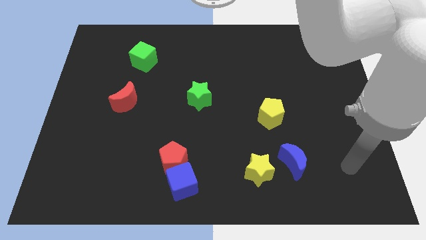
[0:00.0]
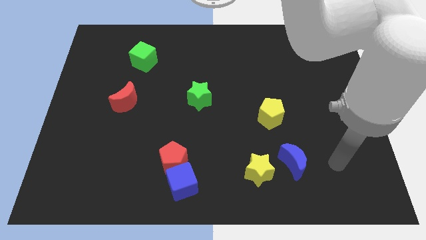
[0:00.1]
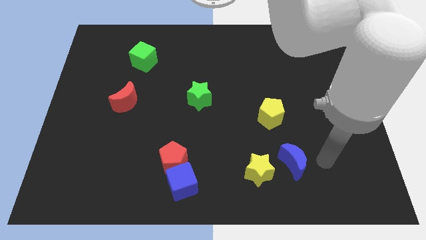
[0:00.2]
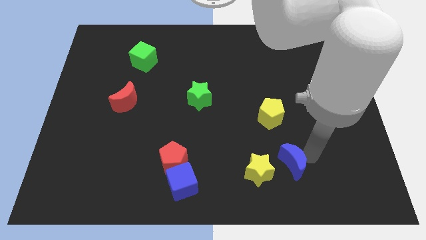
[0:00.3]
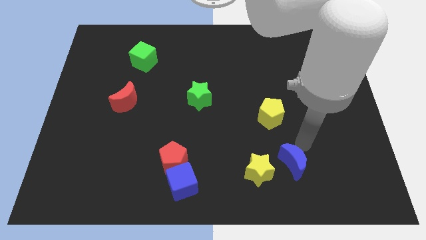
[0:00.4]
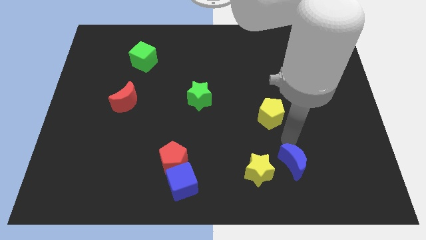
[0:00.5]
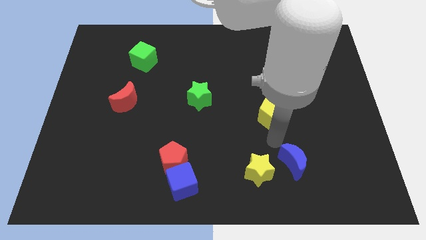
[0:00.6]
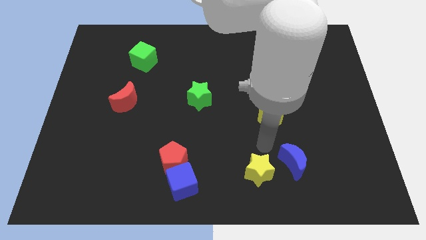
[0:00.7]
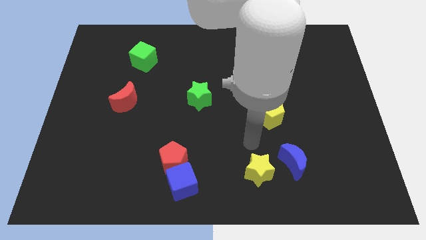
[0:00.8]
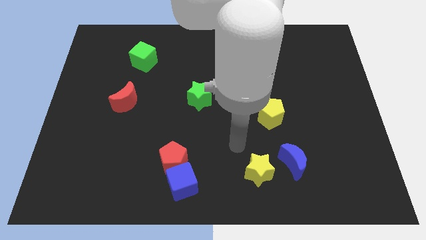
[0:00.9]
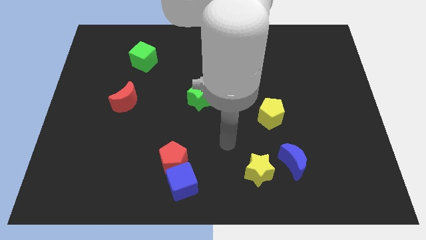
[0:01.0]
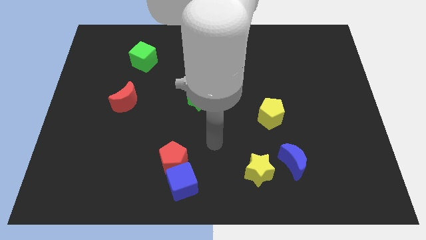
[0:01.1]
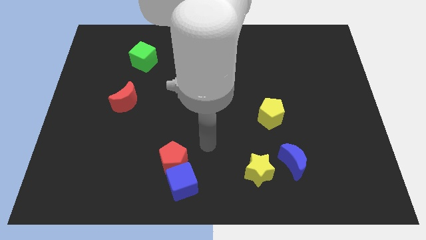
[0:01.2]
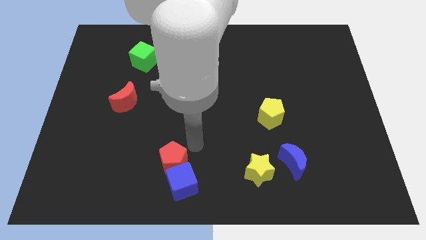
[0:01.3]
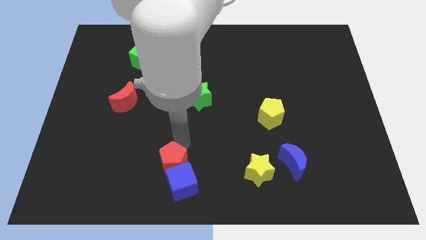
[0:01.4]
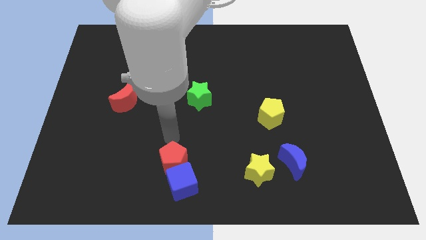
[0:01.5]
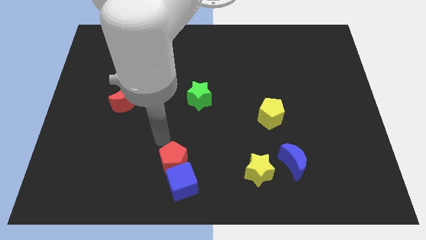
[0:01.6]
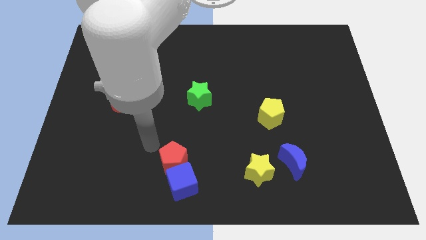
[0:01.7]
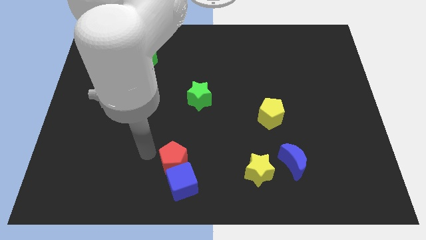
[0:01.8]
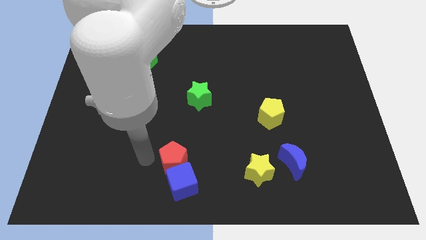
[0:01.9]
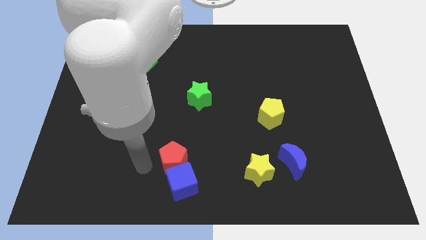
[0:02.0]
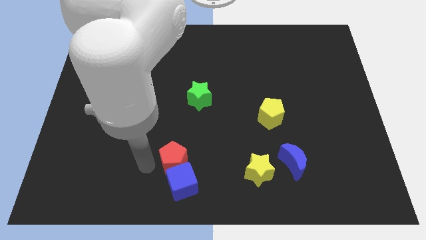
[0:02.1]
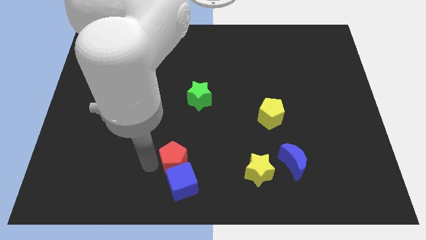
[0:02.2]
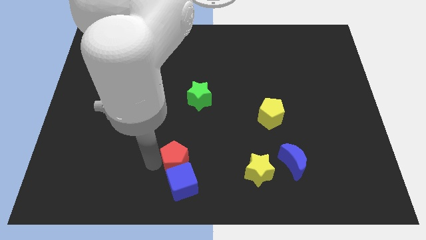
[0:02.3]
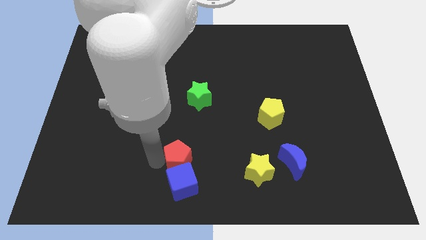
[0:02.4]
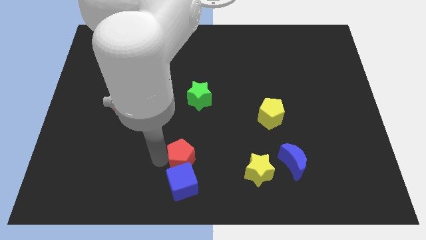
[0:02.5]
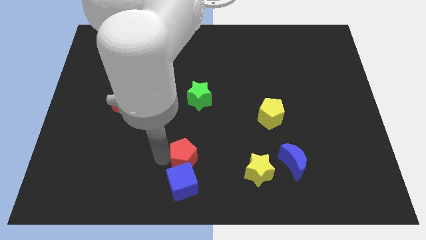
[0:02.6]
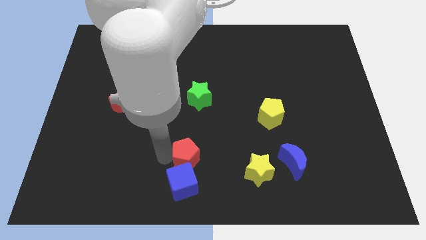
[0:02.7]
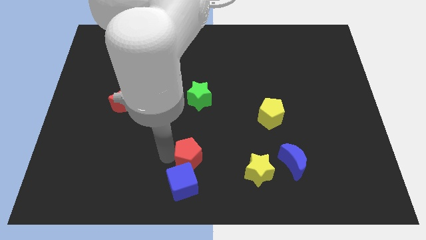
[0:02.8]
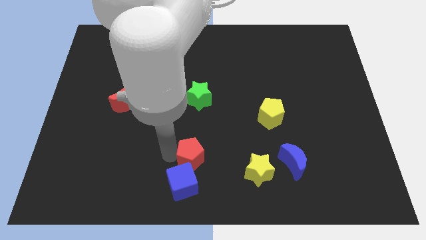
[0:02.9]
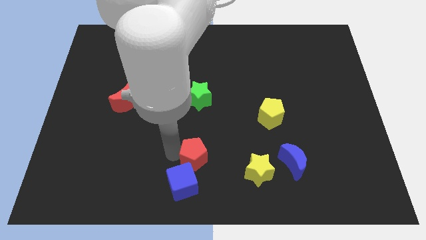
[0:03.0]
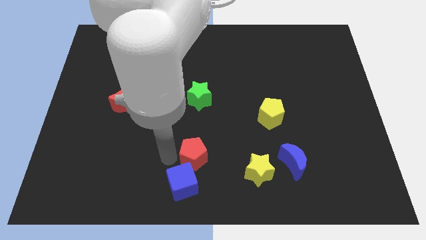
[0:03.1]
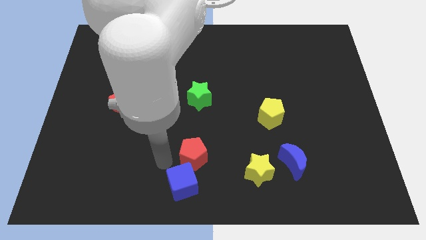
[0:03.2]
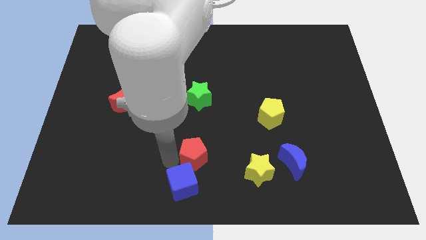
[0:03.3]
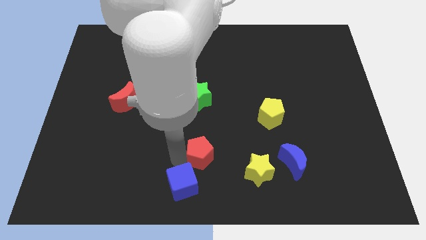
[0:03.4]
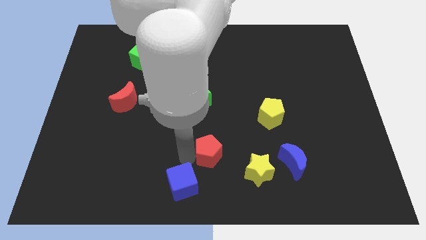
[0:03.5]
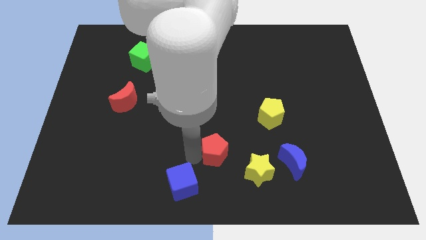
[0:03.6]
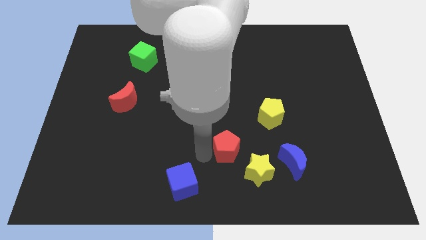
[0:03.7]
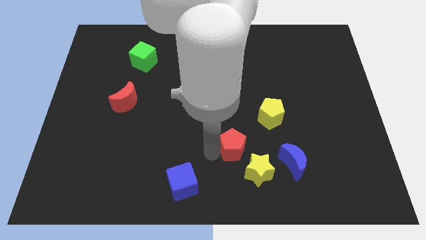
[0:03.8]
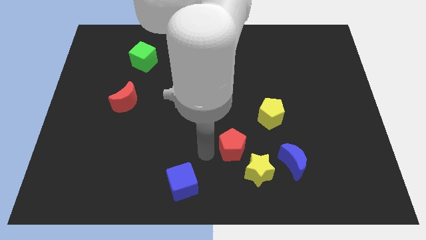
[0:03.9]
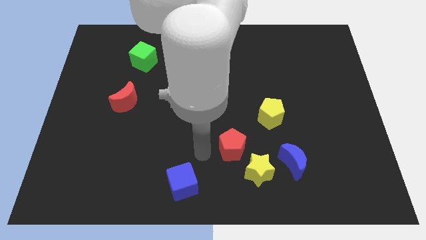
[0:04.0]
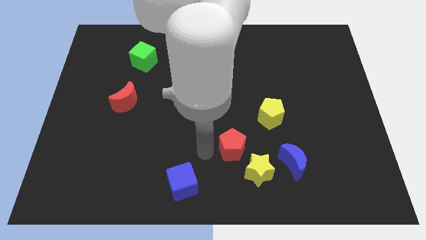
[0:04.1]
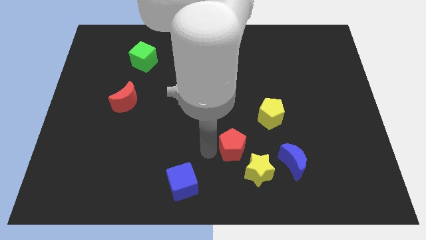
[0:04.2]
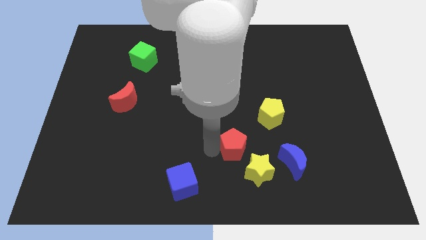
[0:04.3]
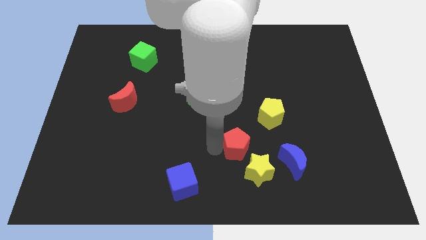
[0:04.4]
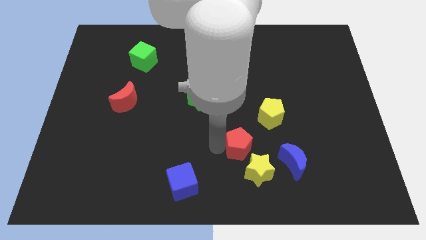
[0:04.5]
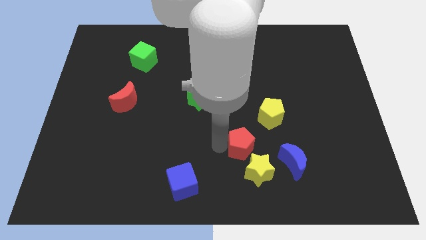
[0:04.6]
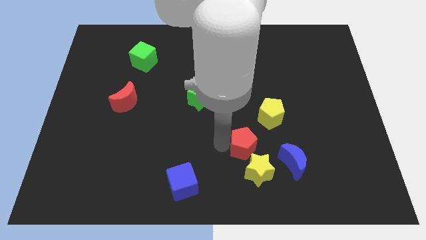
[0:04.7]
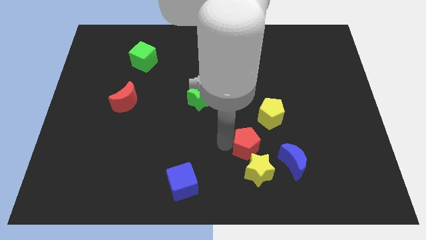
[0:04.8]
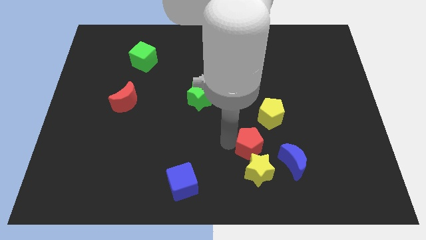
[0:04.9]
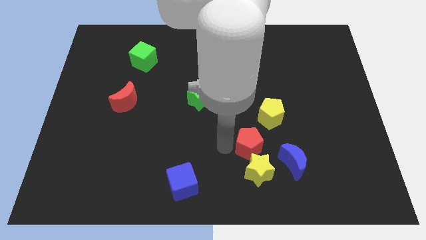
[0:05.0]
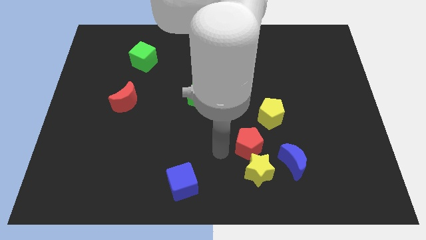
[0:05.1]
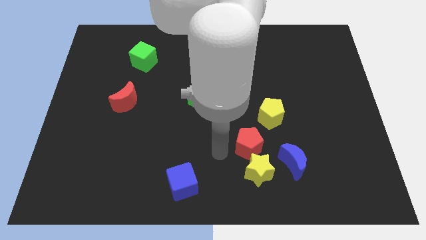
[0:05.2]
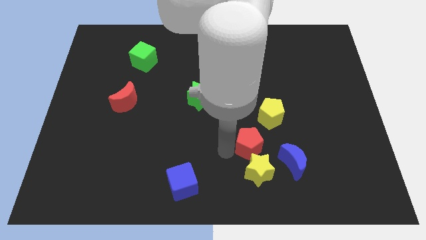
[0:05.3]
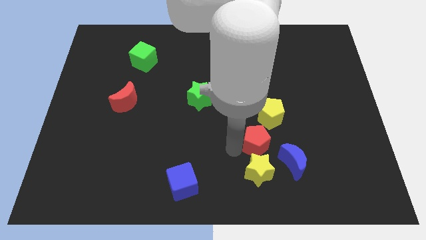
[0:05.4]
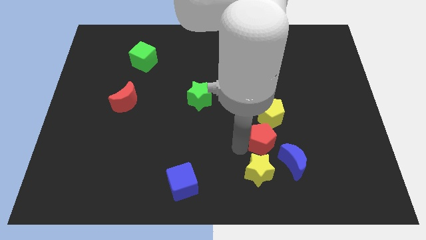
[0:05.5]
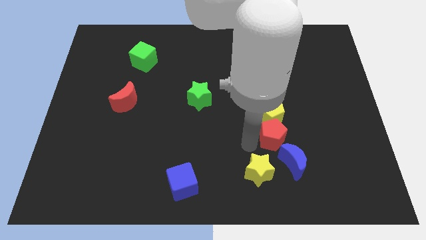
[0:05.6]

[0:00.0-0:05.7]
push the red pentagon to the bottom right of the yellow pentagon

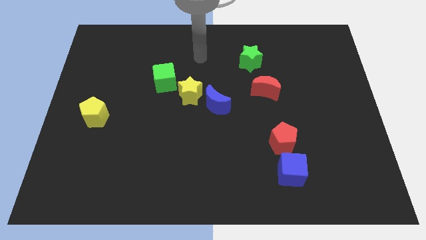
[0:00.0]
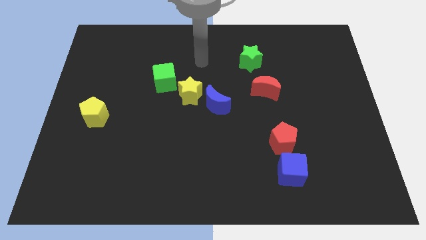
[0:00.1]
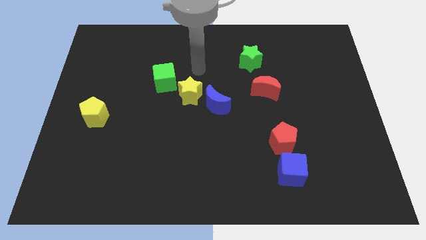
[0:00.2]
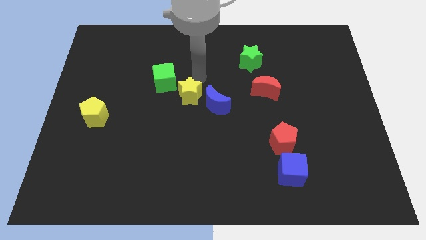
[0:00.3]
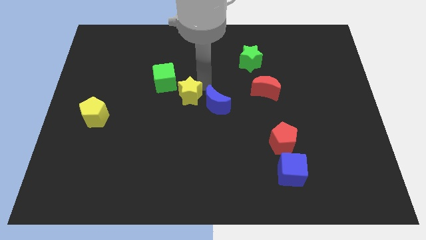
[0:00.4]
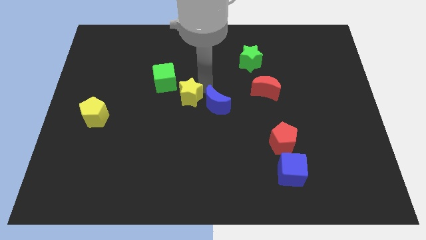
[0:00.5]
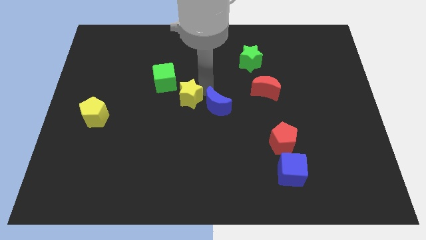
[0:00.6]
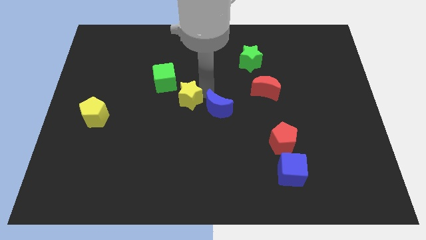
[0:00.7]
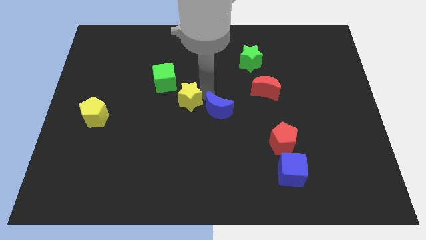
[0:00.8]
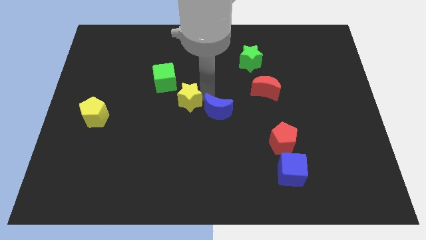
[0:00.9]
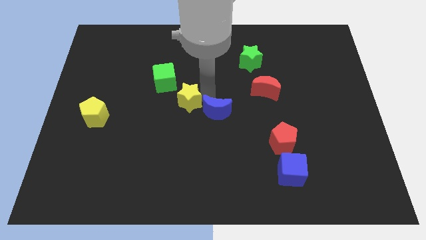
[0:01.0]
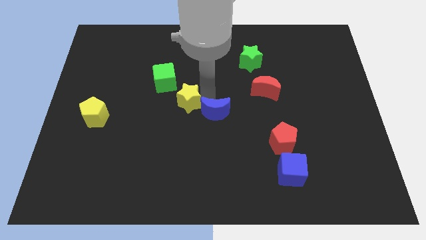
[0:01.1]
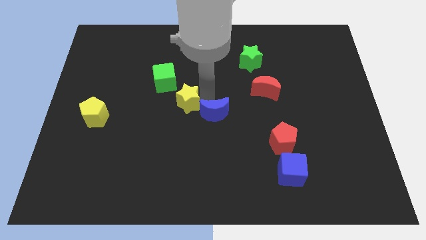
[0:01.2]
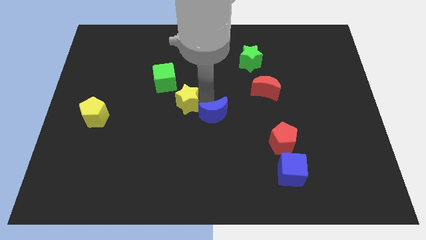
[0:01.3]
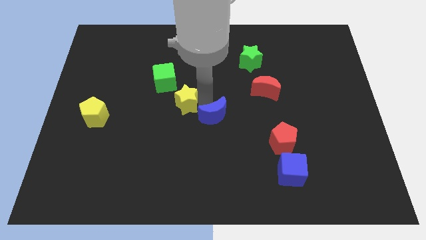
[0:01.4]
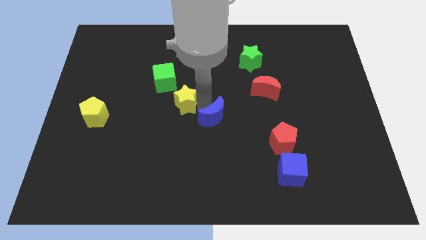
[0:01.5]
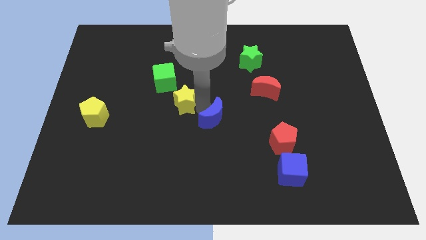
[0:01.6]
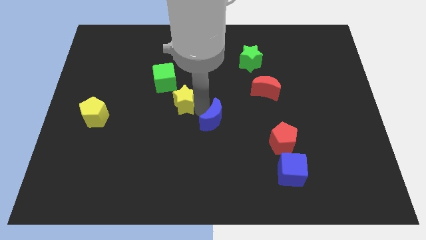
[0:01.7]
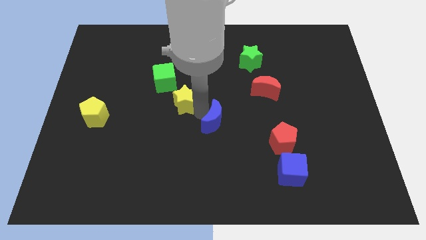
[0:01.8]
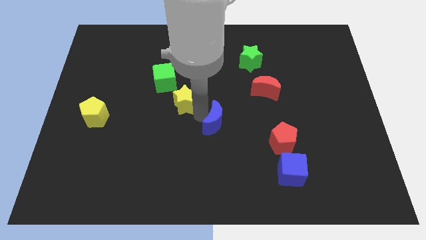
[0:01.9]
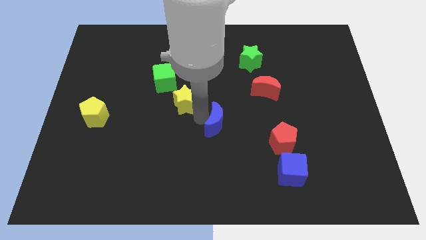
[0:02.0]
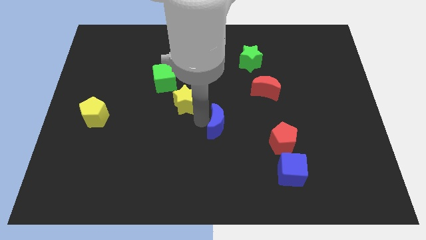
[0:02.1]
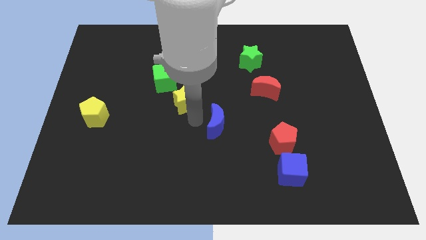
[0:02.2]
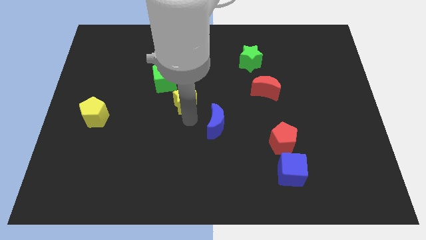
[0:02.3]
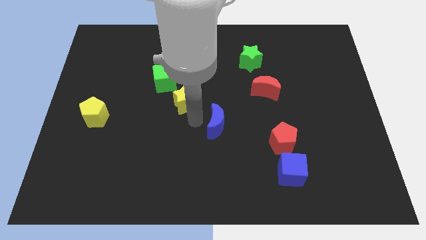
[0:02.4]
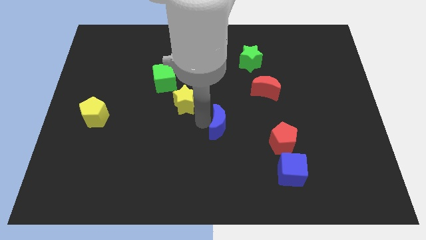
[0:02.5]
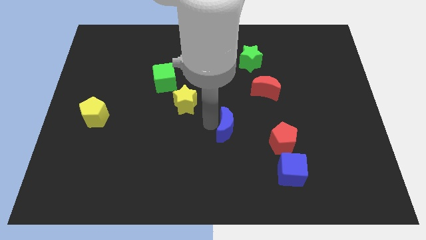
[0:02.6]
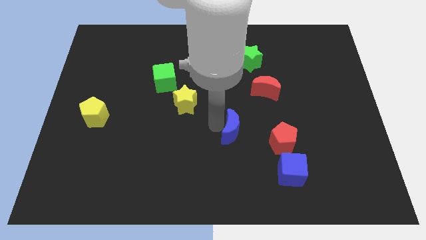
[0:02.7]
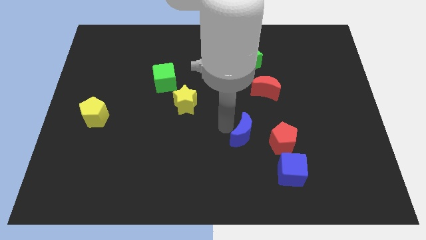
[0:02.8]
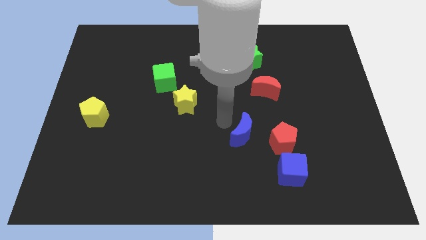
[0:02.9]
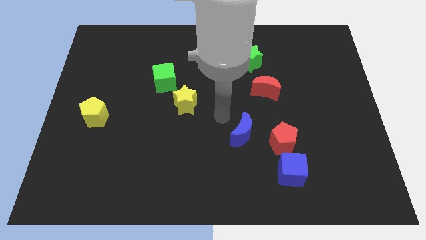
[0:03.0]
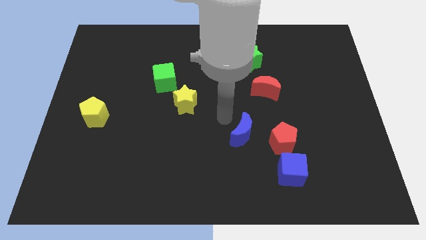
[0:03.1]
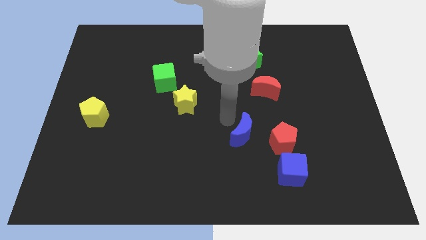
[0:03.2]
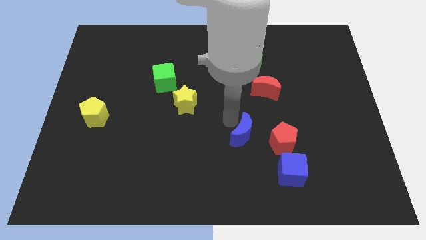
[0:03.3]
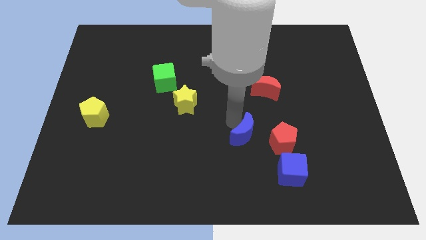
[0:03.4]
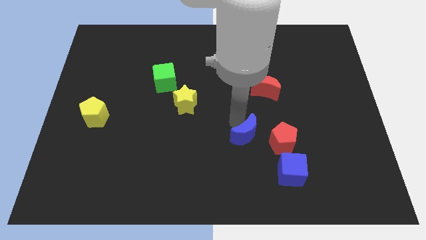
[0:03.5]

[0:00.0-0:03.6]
push the blue moon diagonally up and to the left of the blue cube
